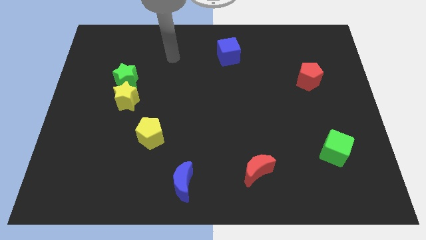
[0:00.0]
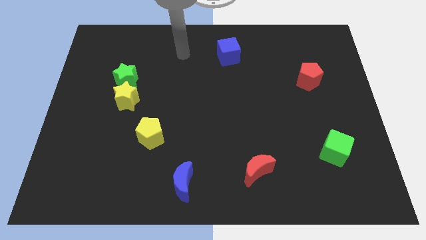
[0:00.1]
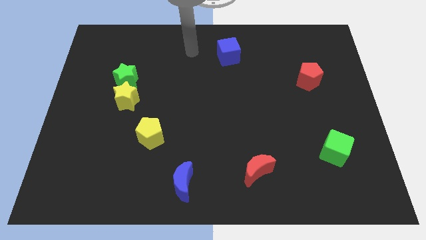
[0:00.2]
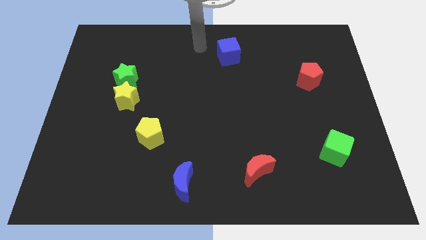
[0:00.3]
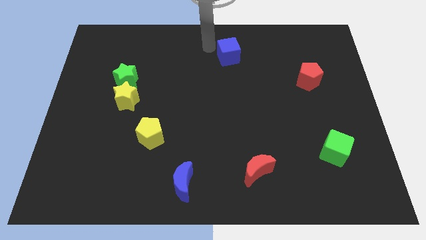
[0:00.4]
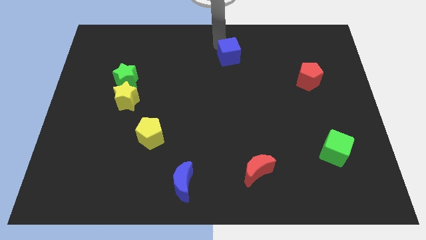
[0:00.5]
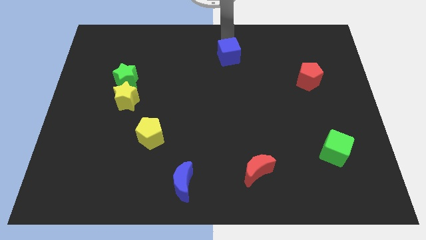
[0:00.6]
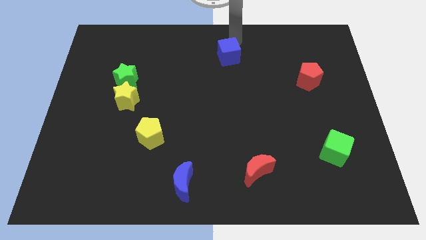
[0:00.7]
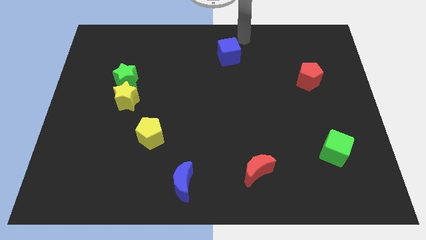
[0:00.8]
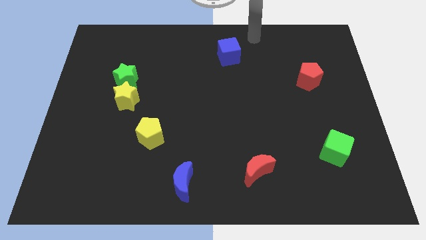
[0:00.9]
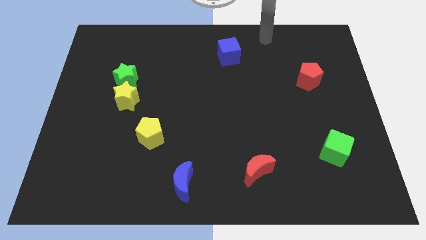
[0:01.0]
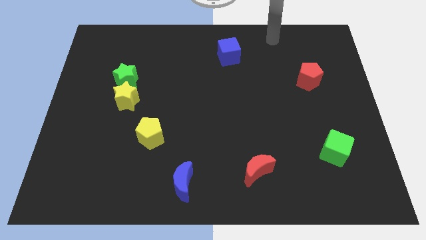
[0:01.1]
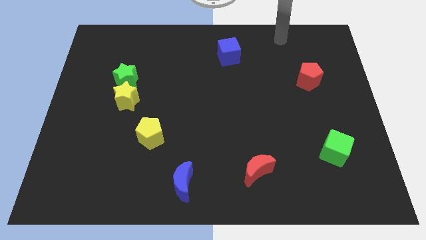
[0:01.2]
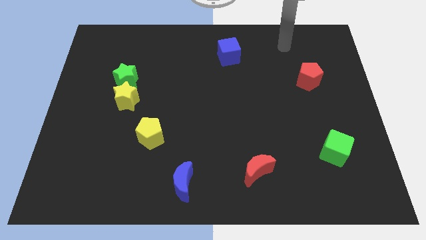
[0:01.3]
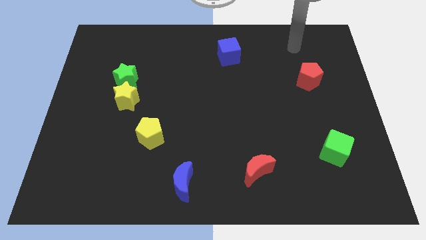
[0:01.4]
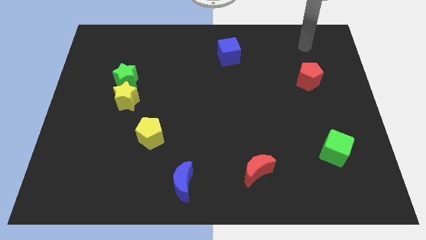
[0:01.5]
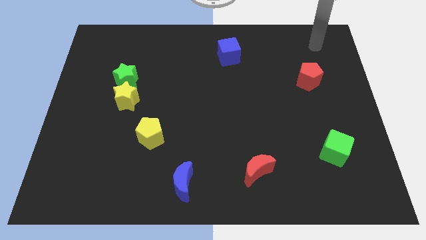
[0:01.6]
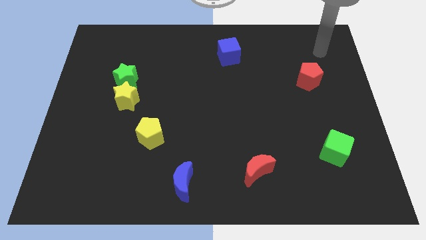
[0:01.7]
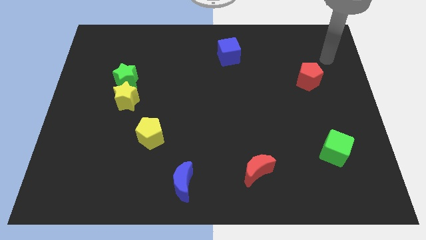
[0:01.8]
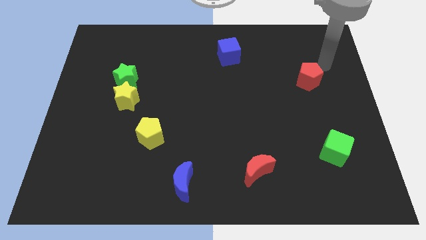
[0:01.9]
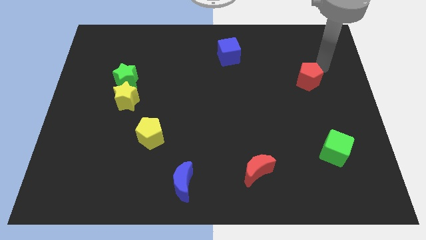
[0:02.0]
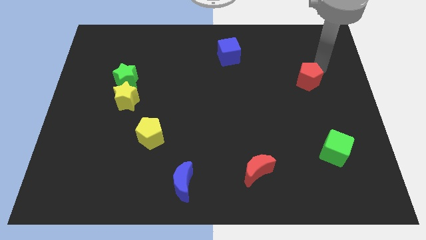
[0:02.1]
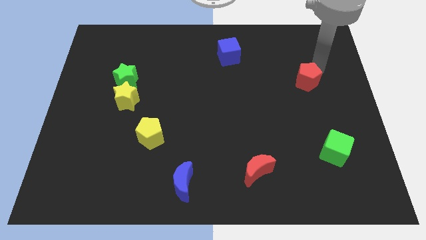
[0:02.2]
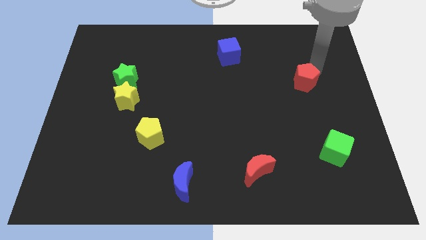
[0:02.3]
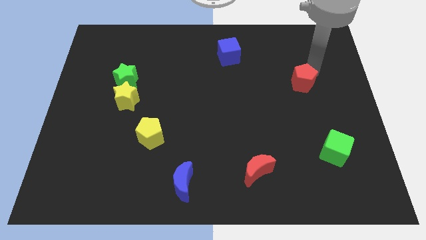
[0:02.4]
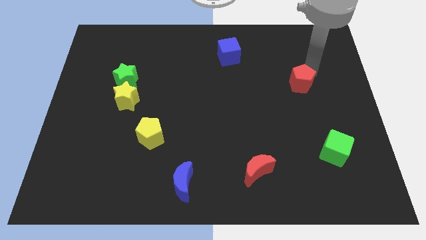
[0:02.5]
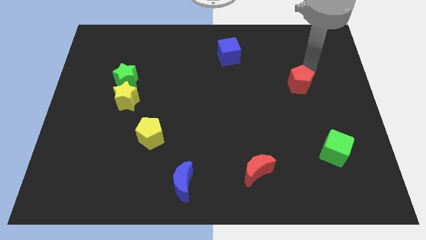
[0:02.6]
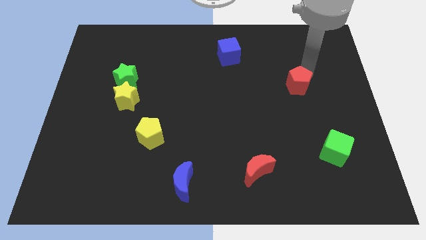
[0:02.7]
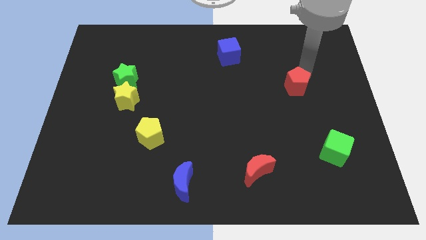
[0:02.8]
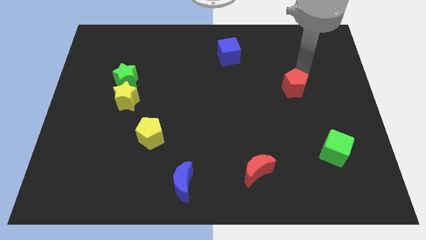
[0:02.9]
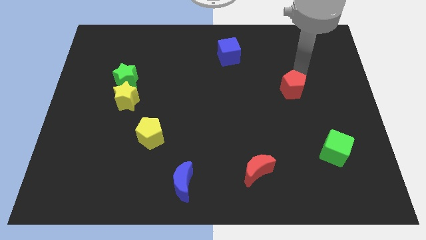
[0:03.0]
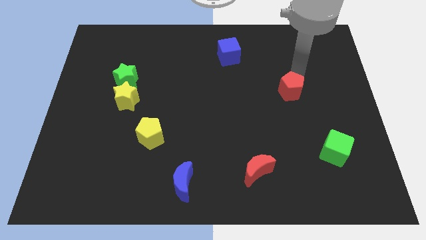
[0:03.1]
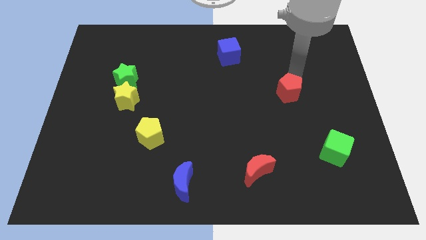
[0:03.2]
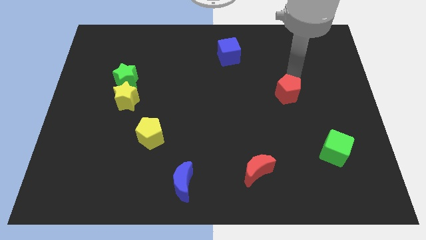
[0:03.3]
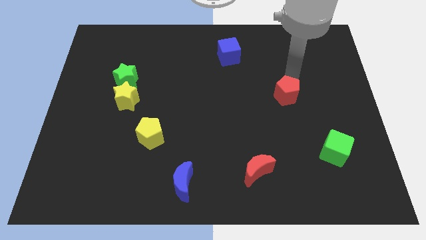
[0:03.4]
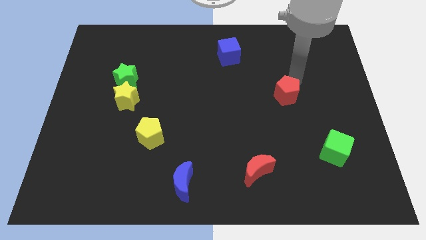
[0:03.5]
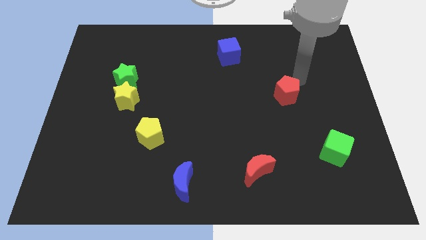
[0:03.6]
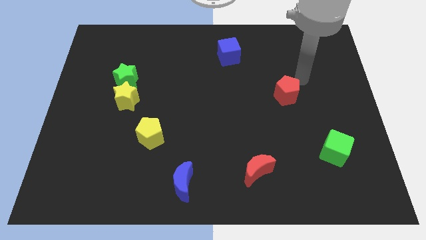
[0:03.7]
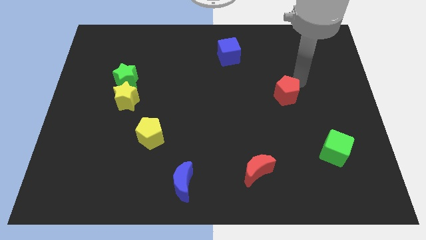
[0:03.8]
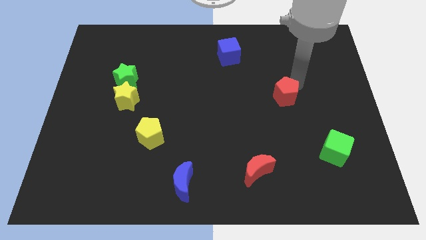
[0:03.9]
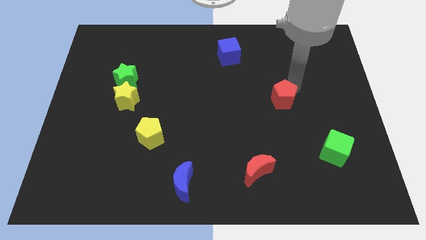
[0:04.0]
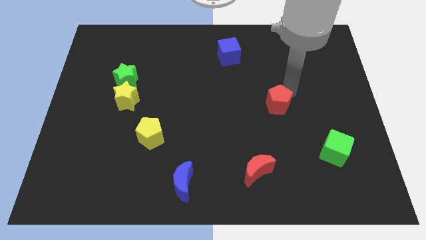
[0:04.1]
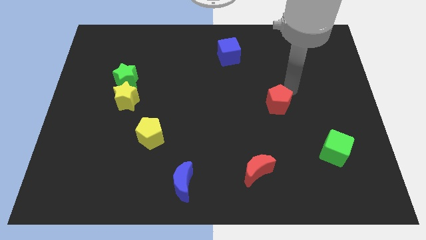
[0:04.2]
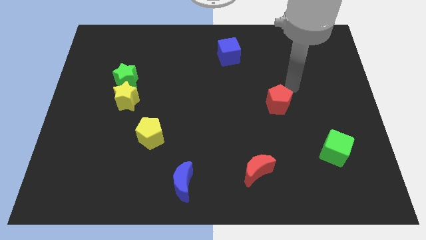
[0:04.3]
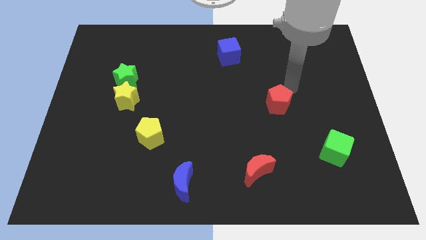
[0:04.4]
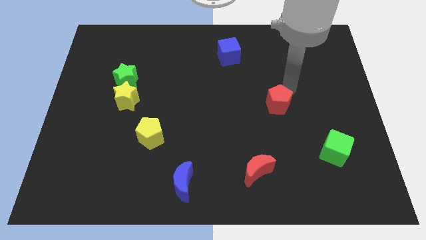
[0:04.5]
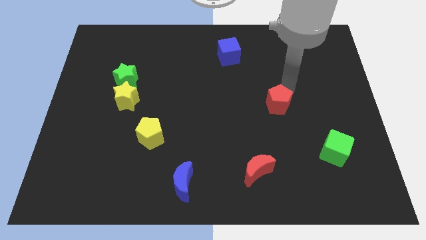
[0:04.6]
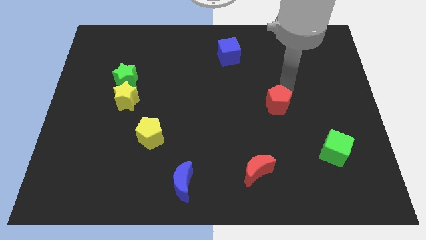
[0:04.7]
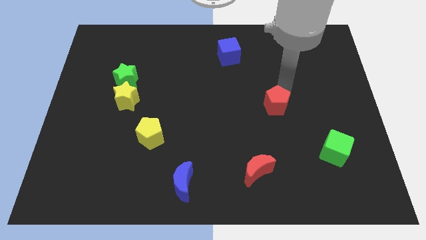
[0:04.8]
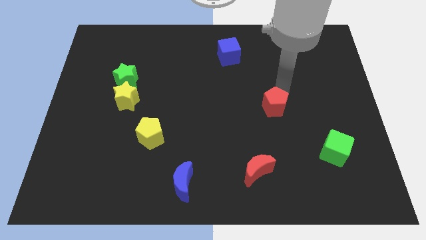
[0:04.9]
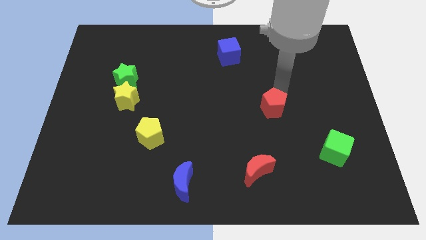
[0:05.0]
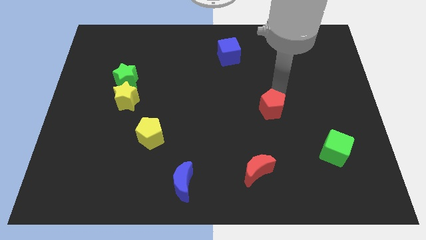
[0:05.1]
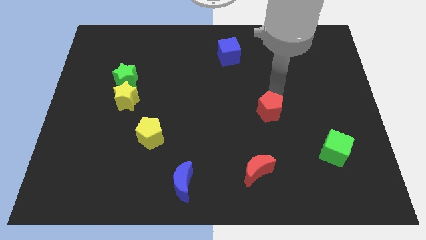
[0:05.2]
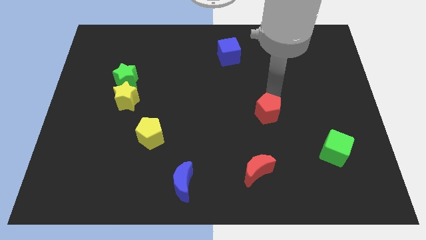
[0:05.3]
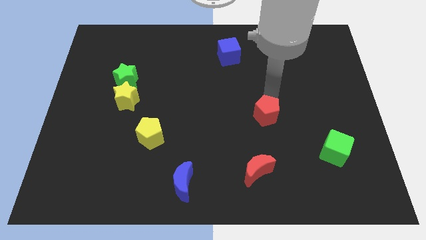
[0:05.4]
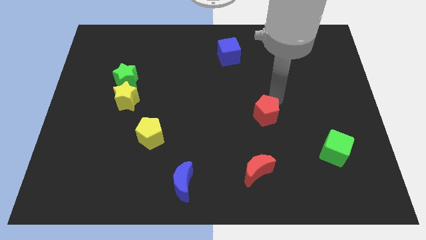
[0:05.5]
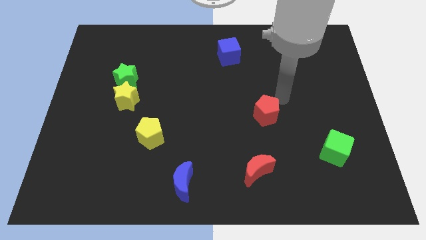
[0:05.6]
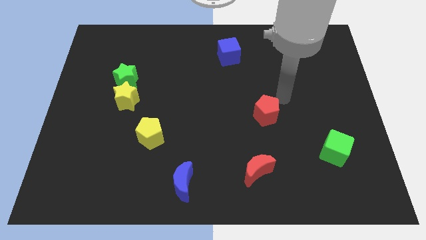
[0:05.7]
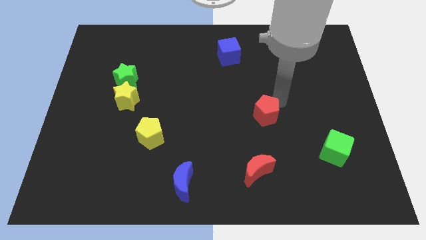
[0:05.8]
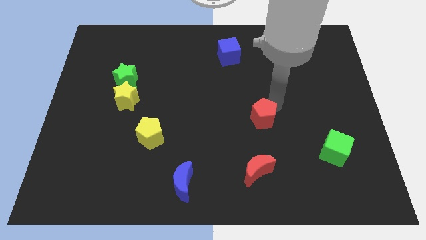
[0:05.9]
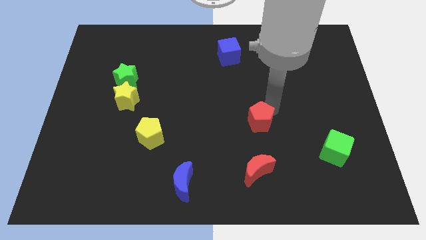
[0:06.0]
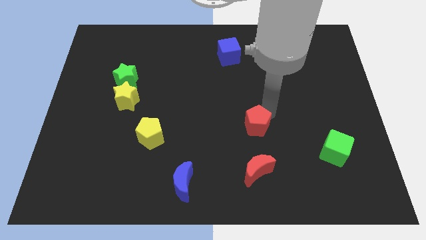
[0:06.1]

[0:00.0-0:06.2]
push the red pentagon downwards and to the left diagonally

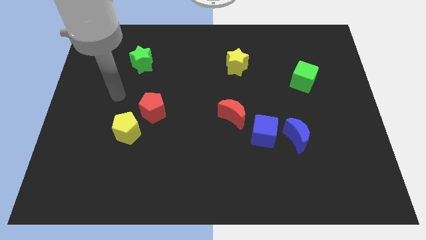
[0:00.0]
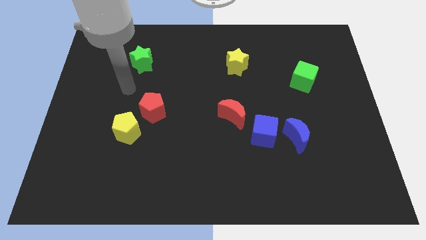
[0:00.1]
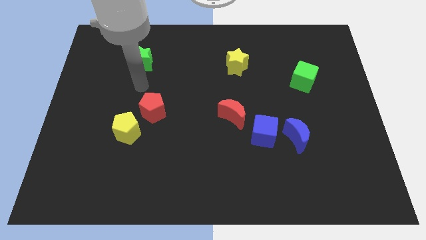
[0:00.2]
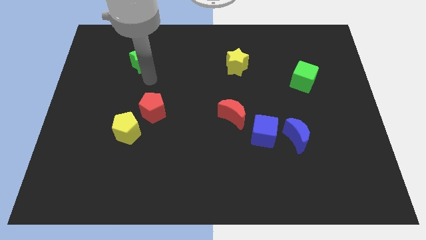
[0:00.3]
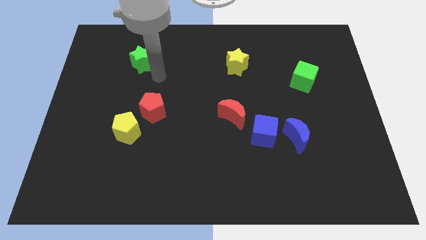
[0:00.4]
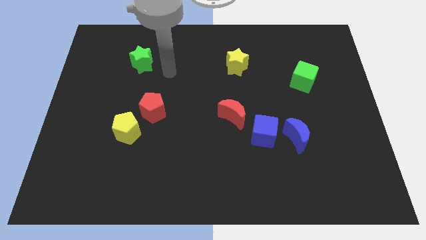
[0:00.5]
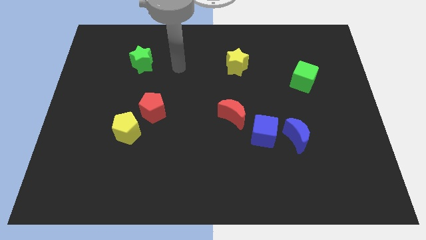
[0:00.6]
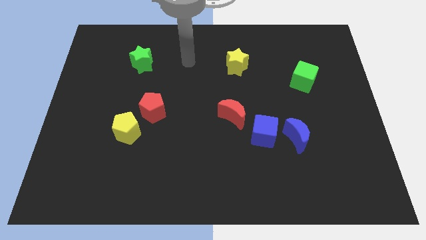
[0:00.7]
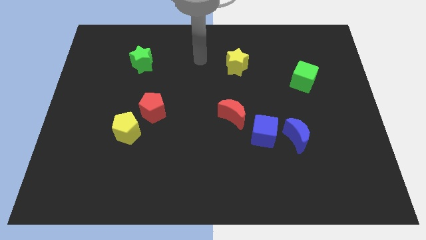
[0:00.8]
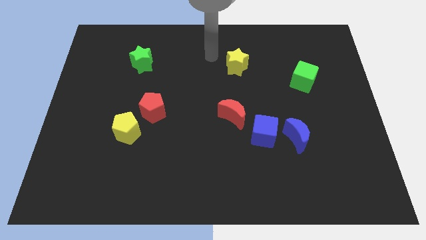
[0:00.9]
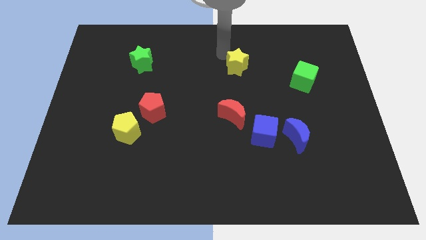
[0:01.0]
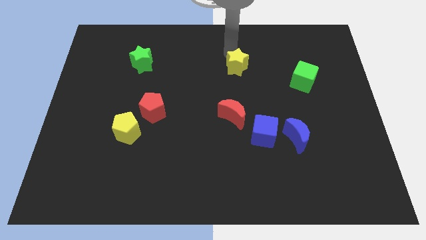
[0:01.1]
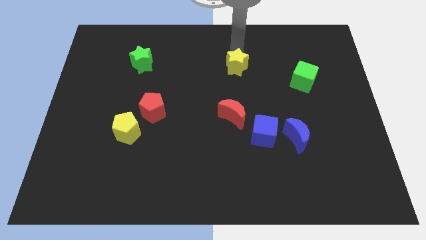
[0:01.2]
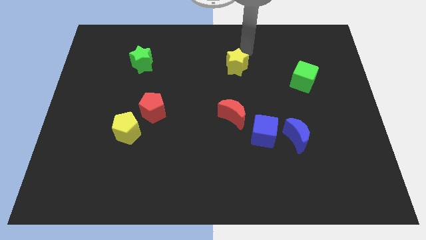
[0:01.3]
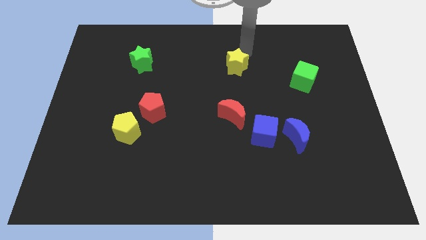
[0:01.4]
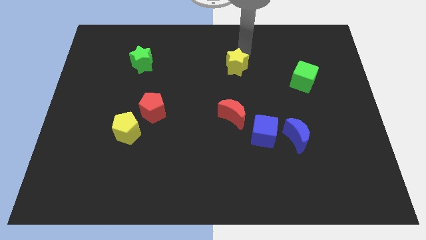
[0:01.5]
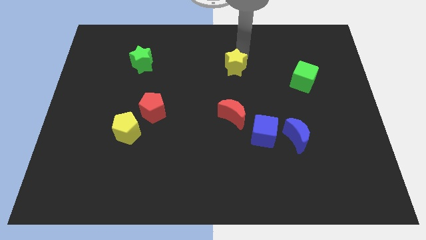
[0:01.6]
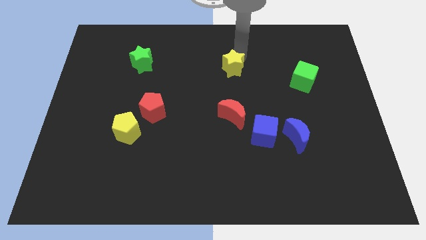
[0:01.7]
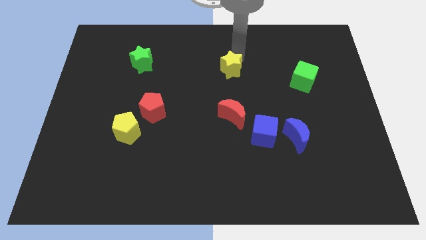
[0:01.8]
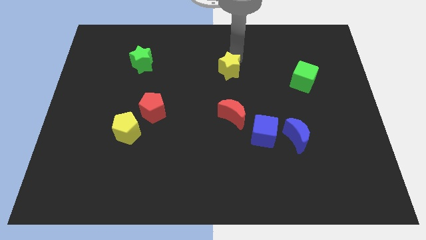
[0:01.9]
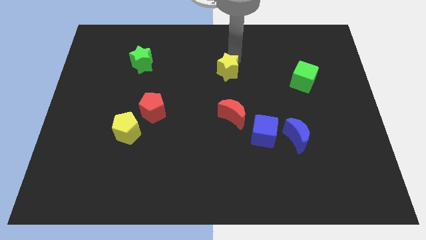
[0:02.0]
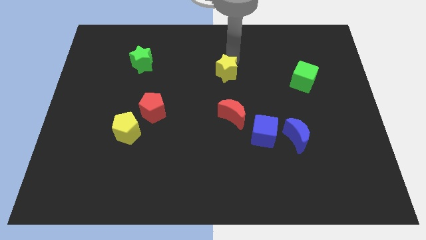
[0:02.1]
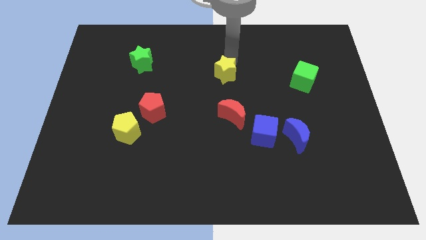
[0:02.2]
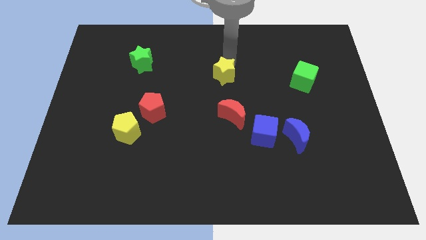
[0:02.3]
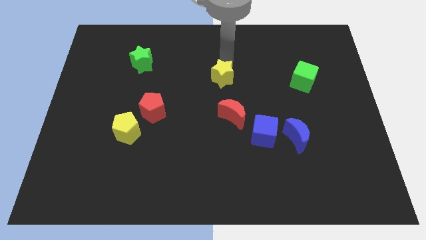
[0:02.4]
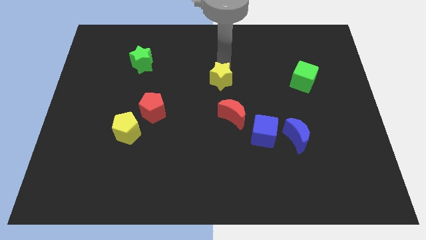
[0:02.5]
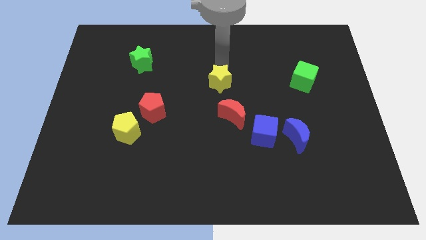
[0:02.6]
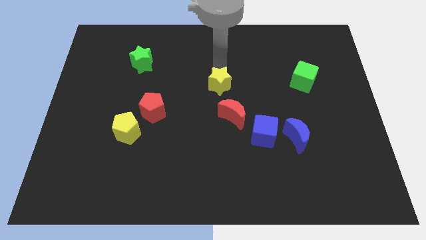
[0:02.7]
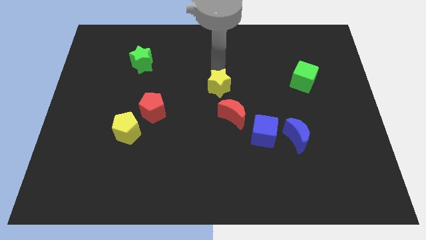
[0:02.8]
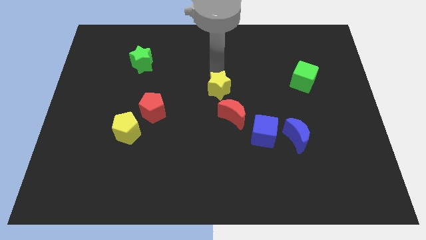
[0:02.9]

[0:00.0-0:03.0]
move the yellow star downwards a little bit
